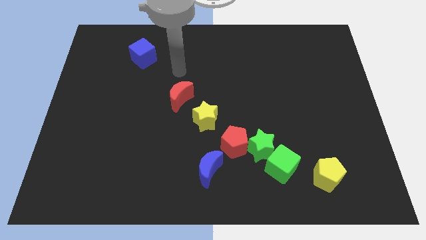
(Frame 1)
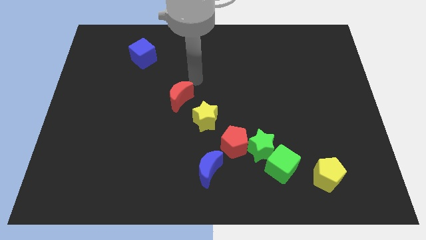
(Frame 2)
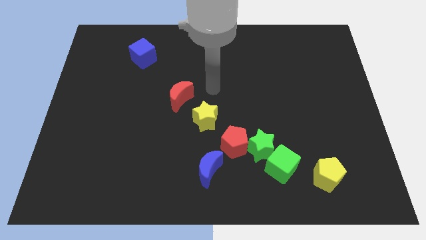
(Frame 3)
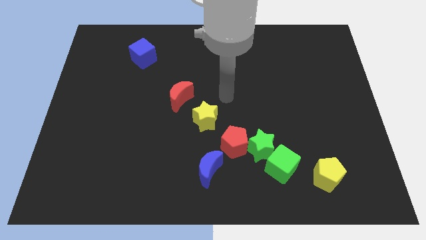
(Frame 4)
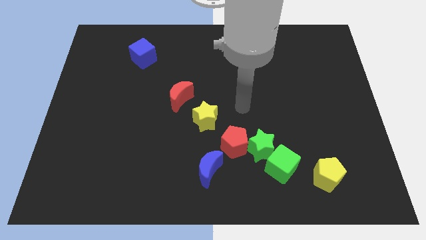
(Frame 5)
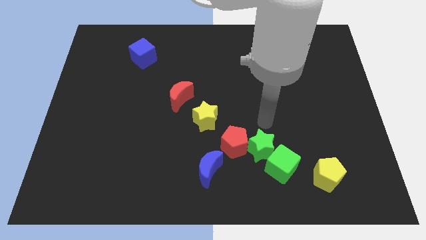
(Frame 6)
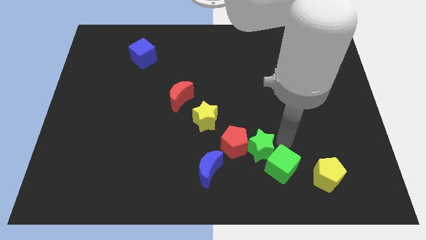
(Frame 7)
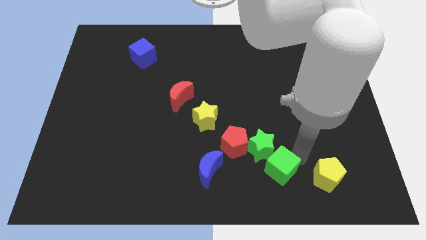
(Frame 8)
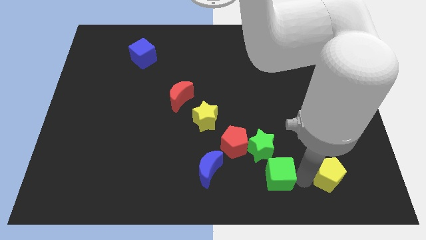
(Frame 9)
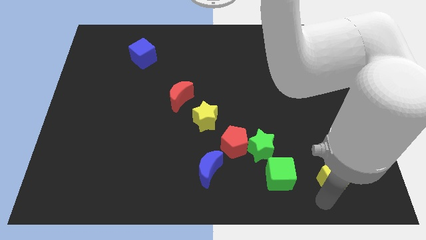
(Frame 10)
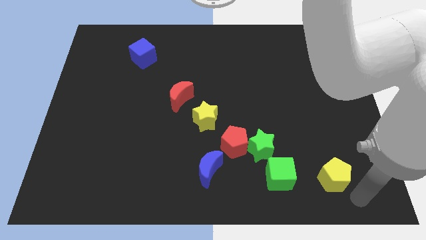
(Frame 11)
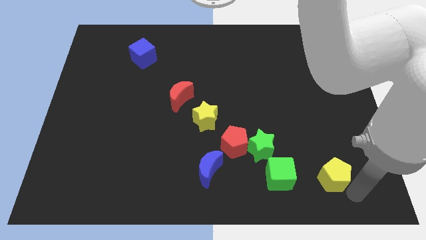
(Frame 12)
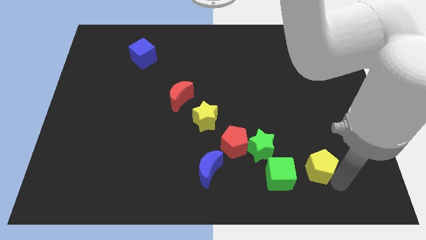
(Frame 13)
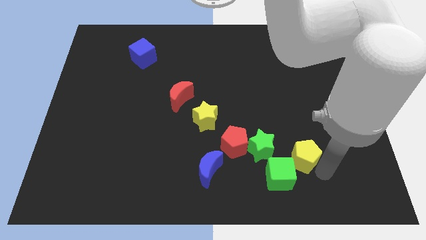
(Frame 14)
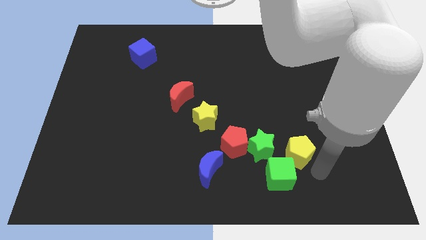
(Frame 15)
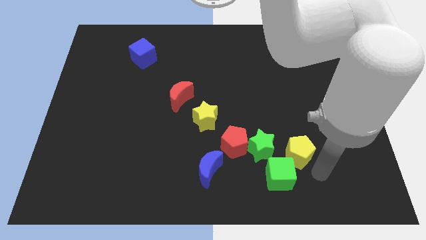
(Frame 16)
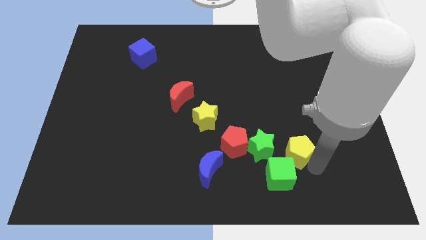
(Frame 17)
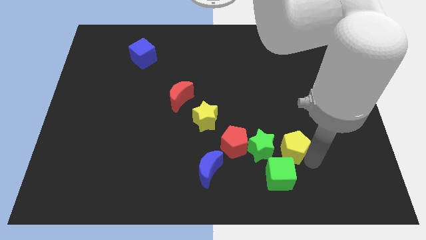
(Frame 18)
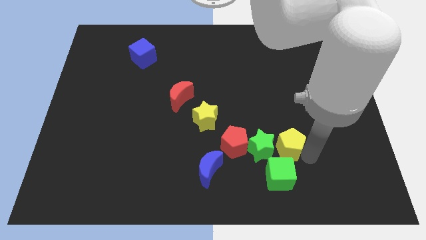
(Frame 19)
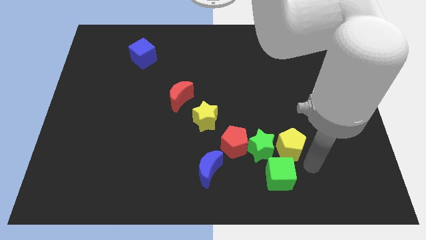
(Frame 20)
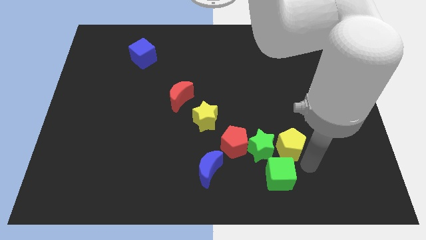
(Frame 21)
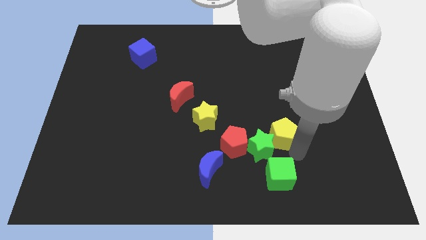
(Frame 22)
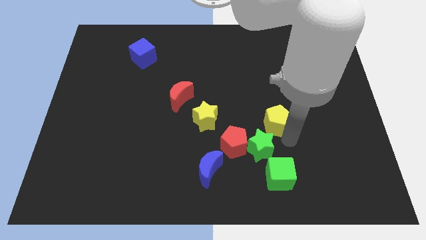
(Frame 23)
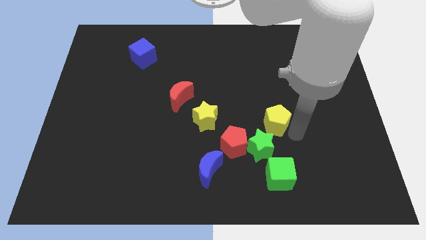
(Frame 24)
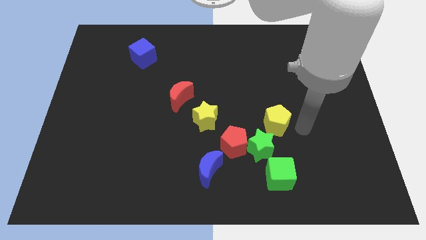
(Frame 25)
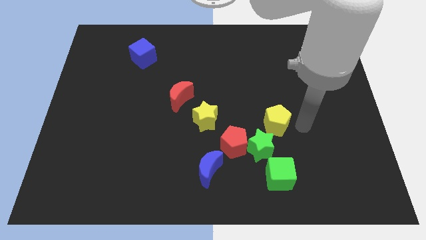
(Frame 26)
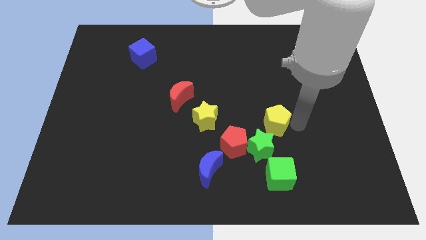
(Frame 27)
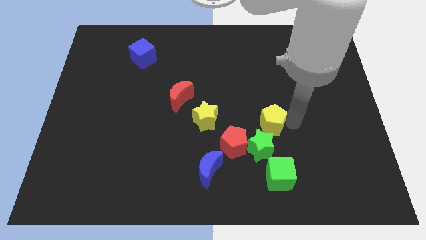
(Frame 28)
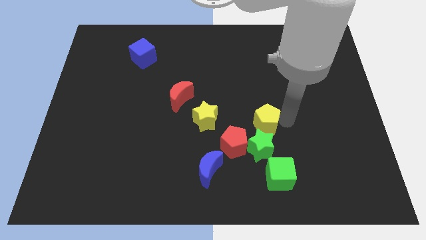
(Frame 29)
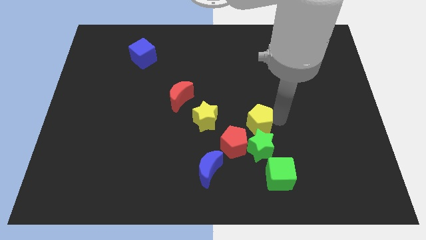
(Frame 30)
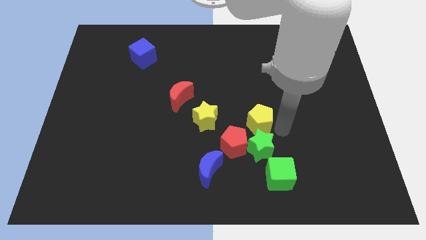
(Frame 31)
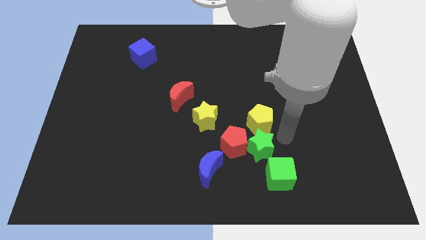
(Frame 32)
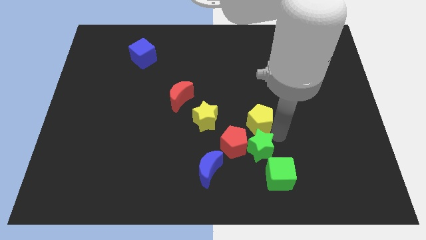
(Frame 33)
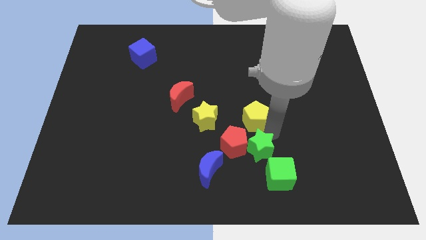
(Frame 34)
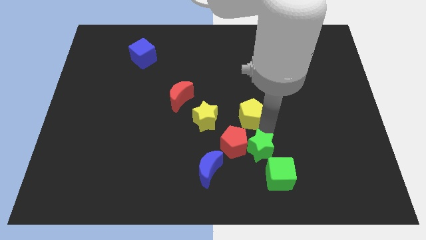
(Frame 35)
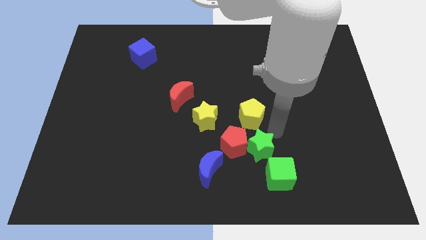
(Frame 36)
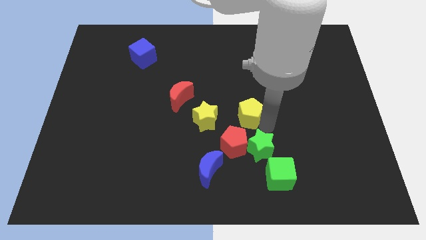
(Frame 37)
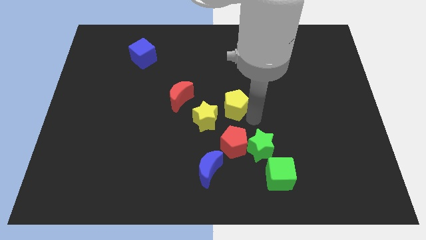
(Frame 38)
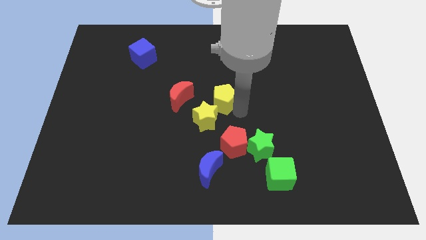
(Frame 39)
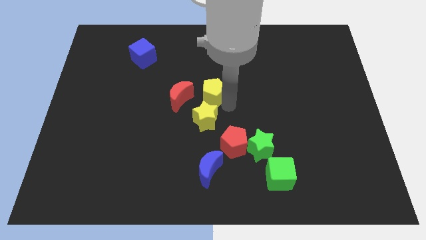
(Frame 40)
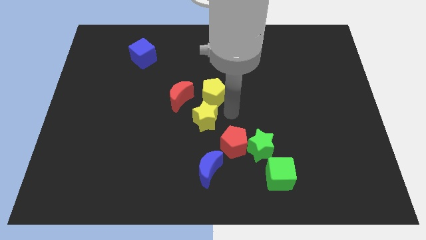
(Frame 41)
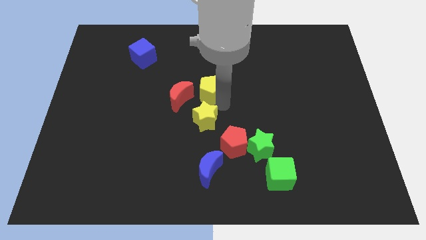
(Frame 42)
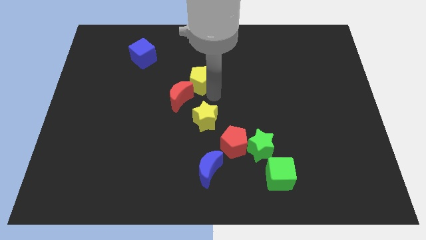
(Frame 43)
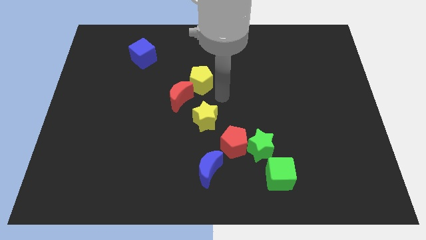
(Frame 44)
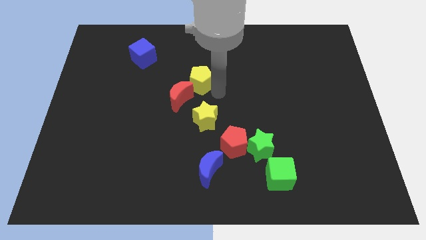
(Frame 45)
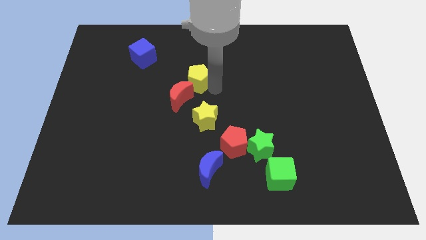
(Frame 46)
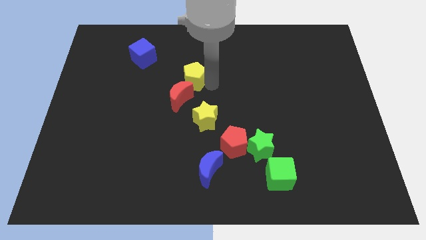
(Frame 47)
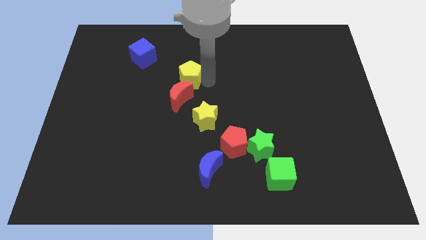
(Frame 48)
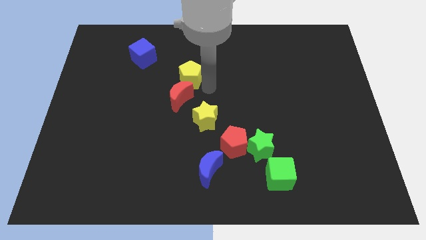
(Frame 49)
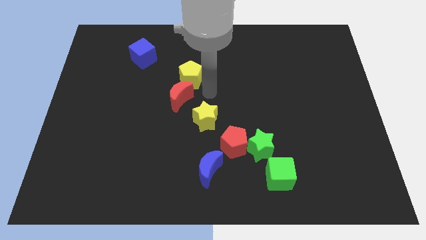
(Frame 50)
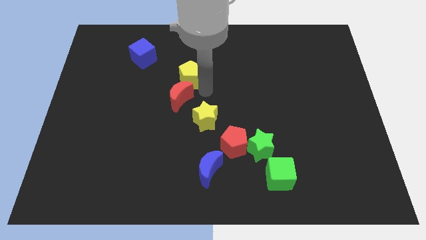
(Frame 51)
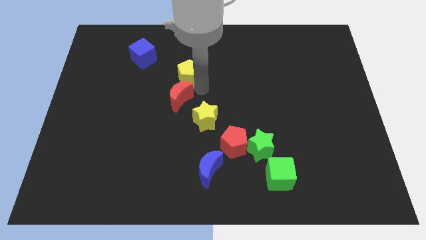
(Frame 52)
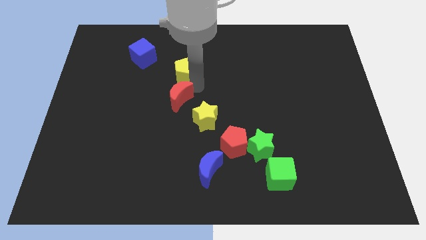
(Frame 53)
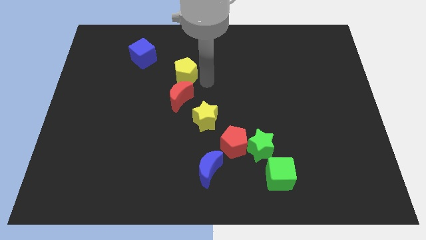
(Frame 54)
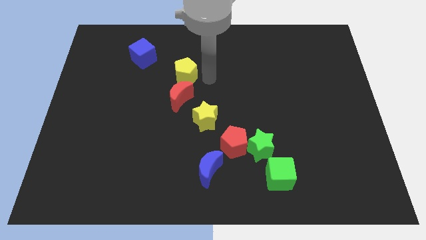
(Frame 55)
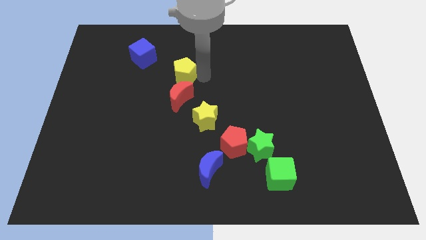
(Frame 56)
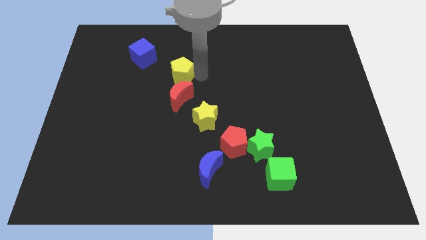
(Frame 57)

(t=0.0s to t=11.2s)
push the yellow pentagon to the bottom right side of the blue cube

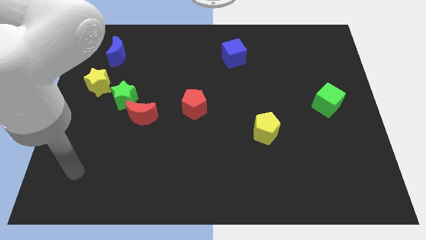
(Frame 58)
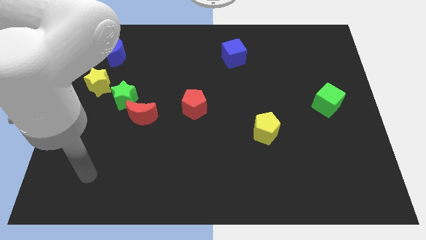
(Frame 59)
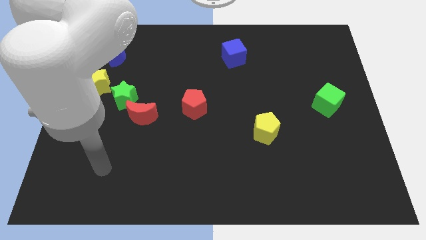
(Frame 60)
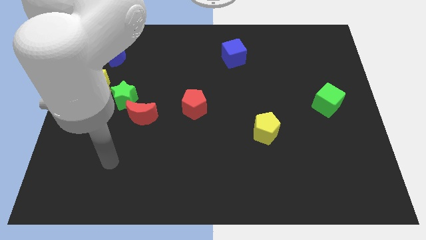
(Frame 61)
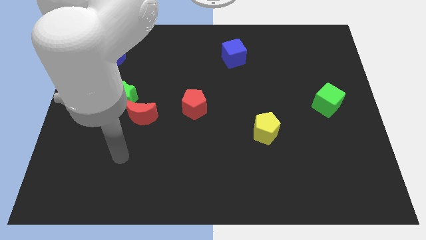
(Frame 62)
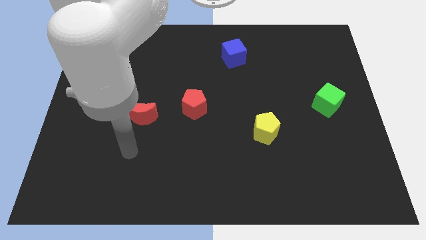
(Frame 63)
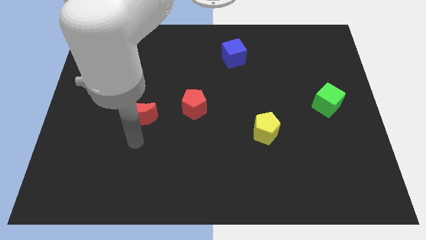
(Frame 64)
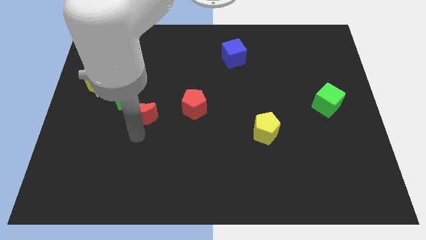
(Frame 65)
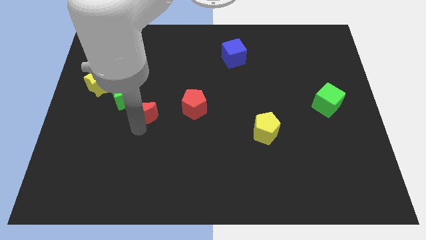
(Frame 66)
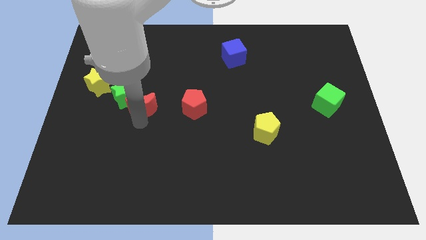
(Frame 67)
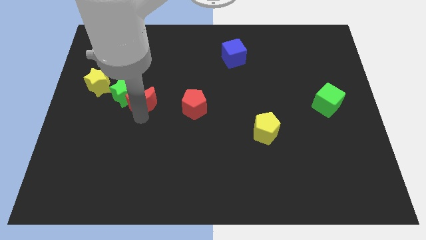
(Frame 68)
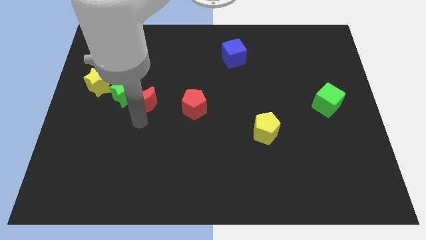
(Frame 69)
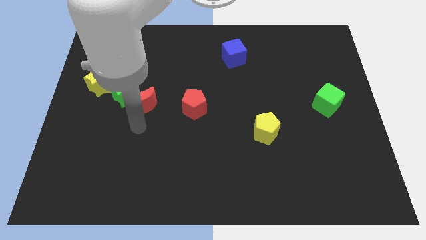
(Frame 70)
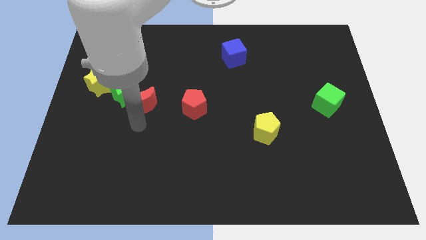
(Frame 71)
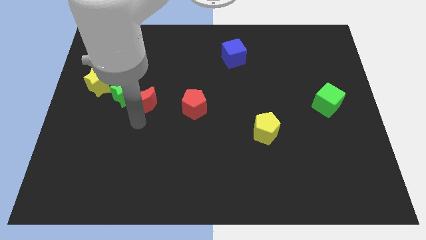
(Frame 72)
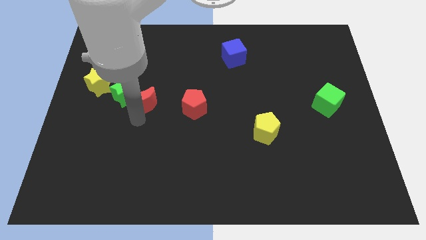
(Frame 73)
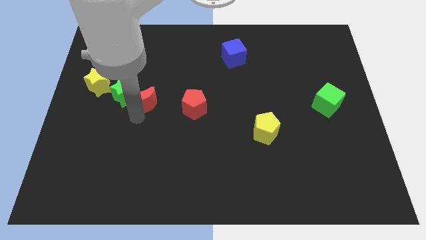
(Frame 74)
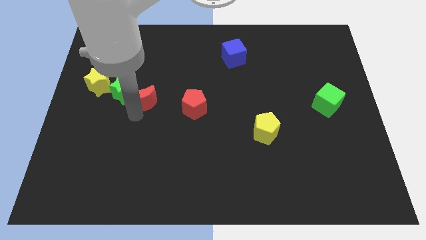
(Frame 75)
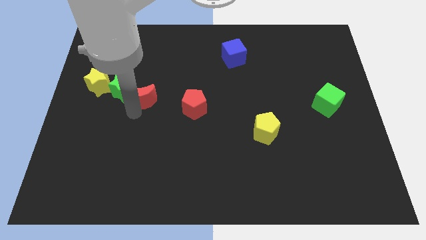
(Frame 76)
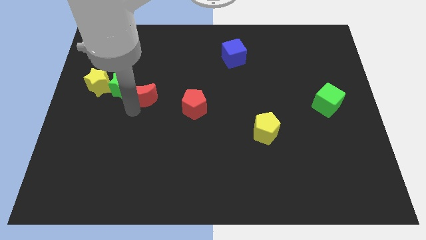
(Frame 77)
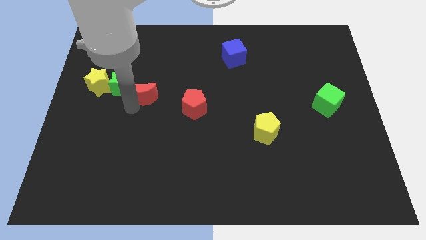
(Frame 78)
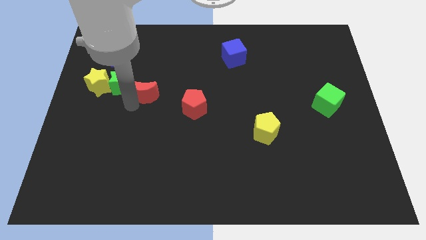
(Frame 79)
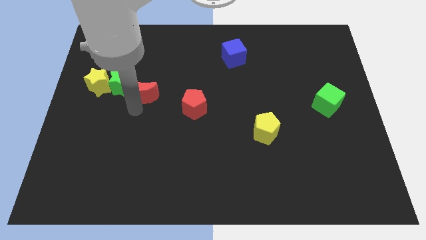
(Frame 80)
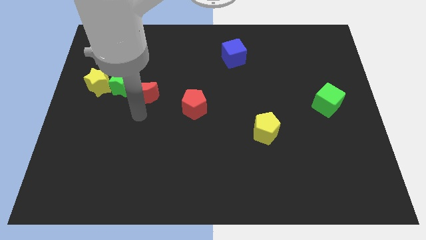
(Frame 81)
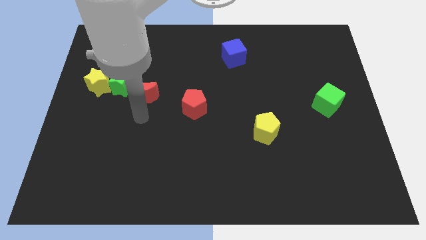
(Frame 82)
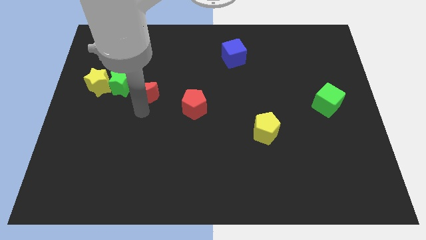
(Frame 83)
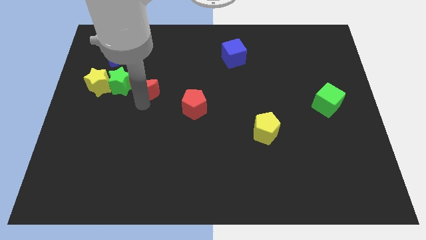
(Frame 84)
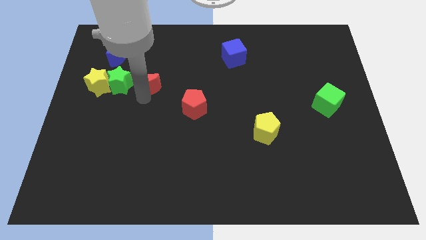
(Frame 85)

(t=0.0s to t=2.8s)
put the red moon to the top right side of the green star
